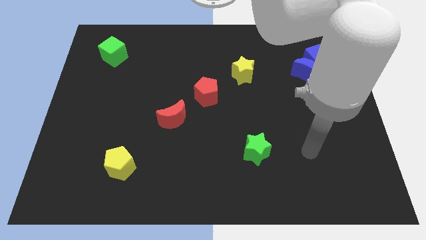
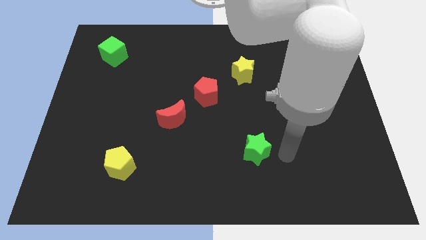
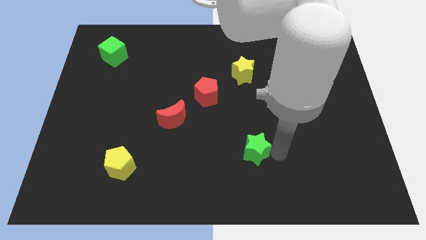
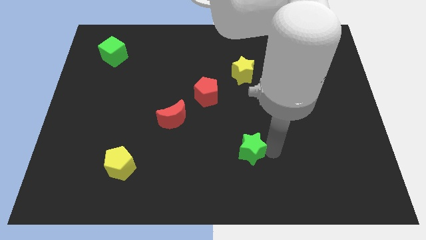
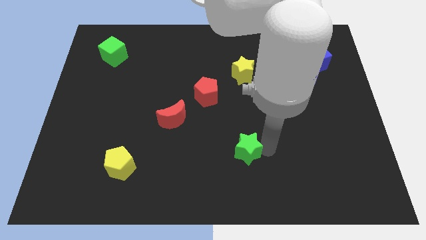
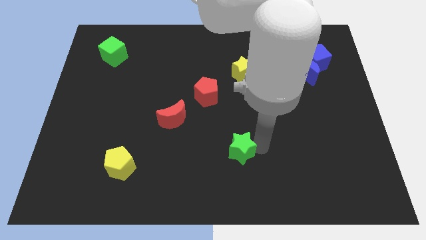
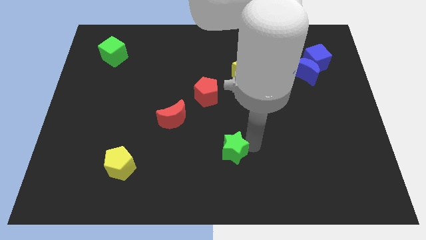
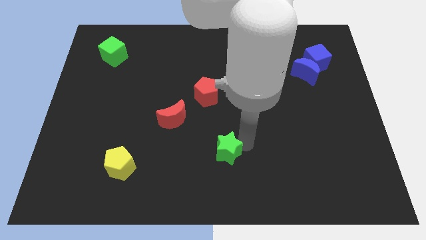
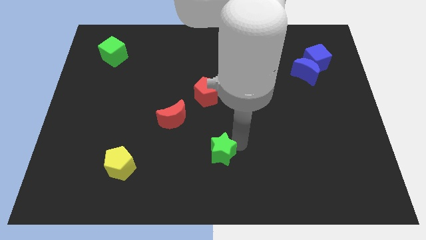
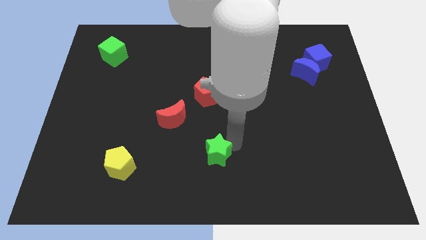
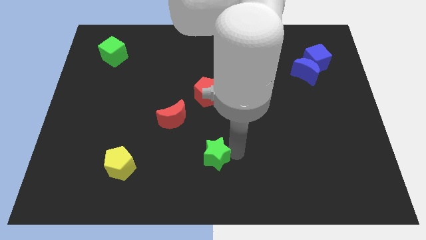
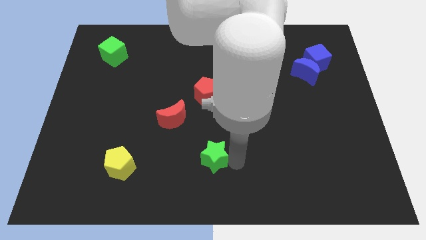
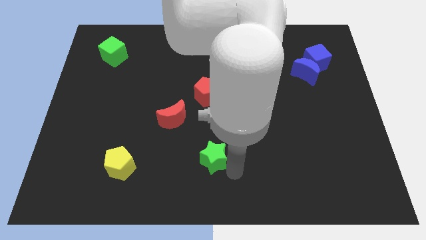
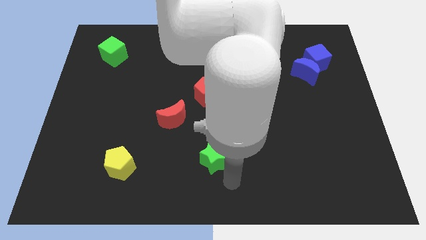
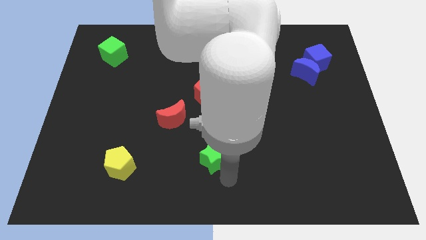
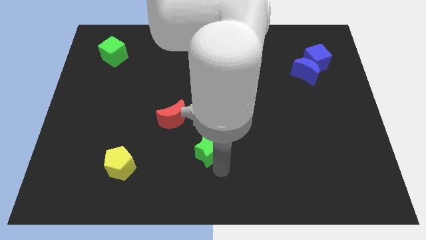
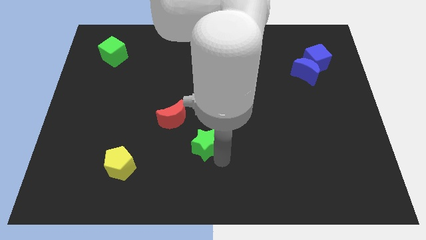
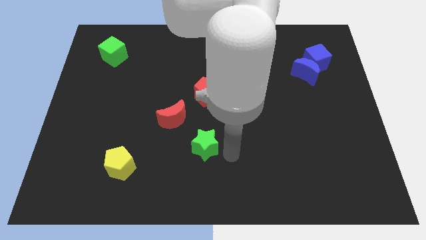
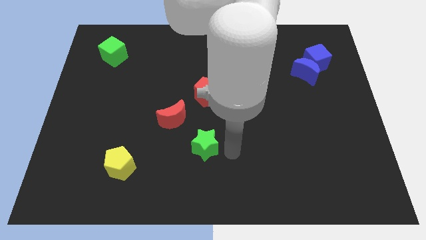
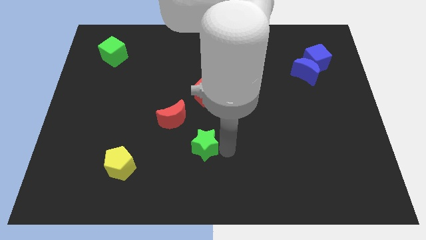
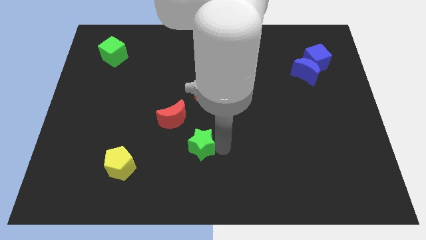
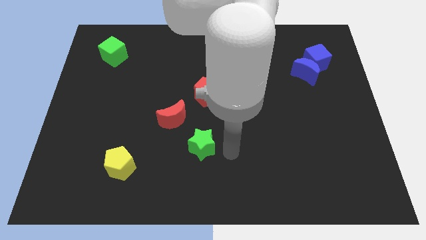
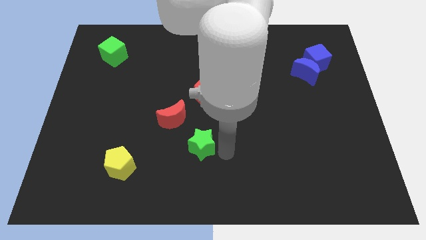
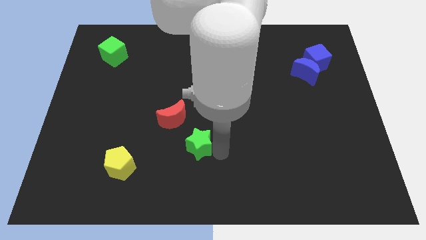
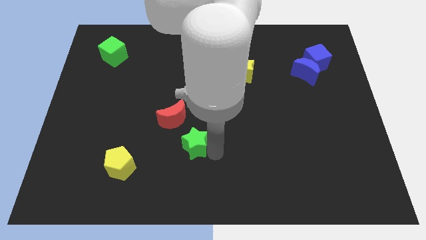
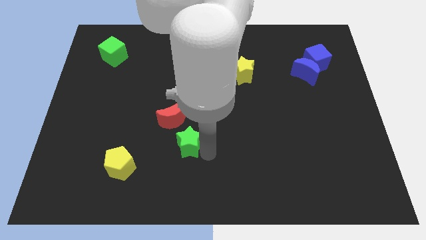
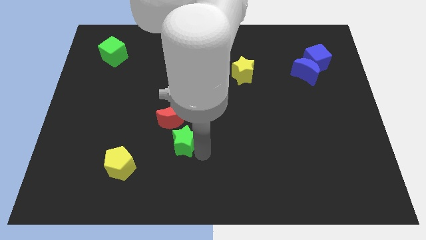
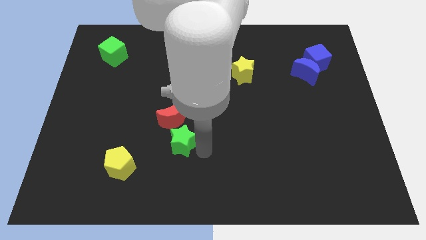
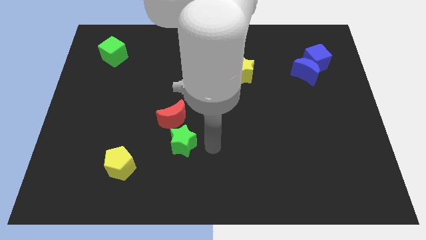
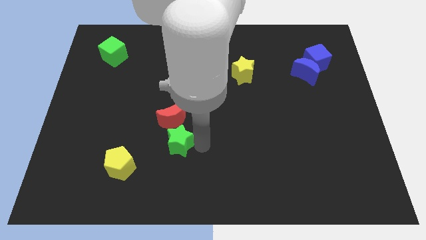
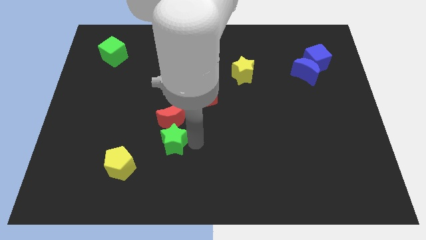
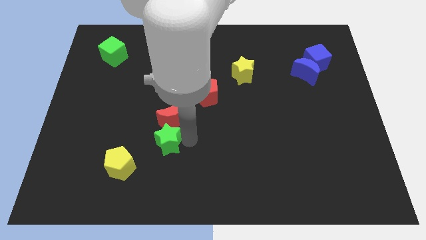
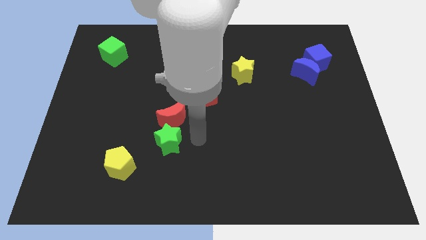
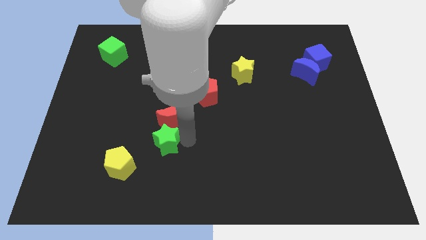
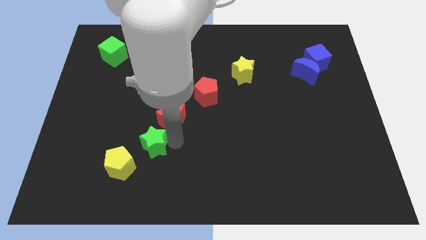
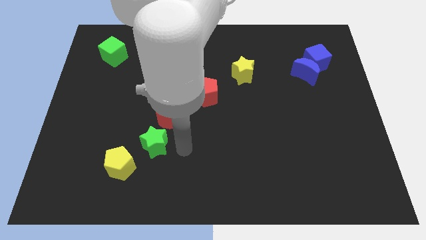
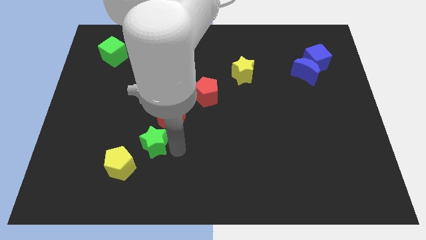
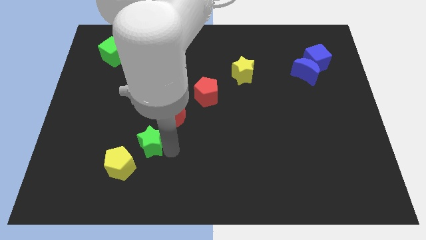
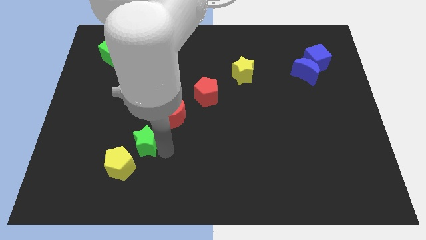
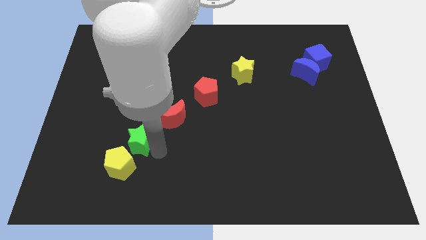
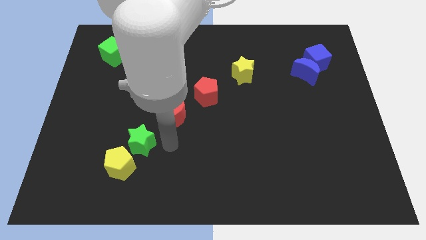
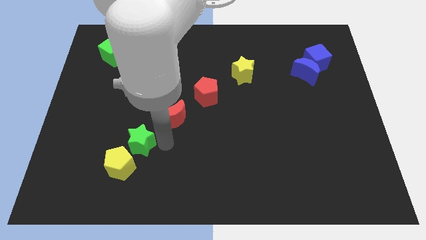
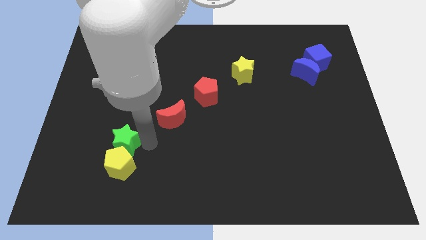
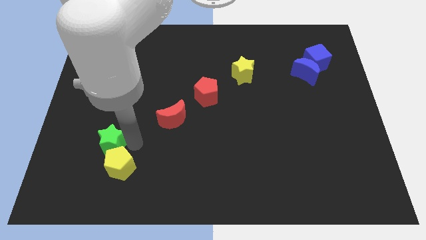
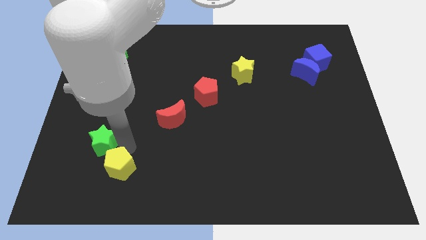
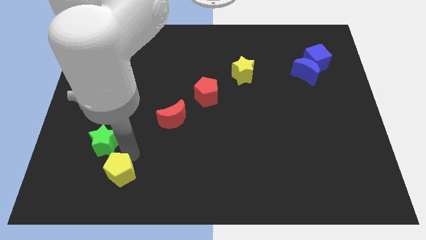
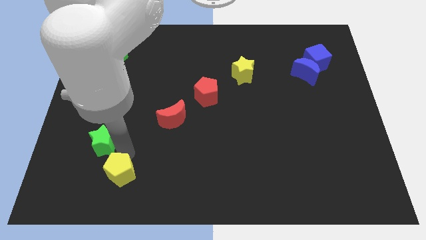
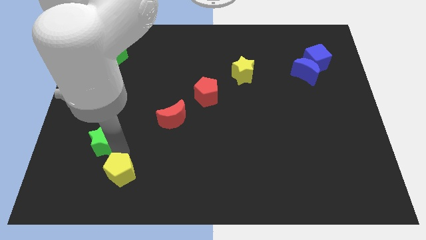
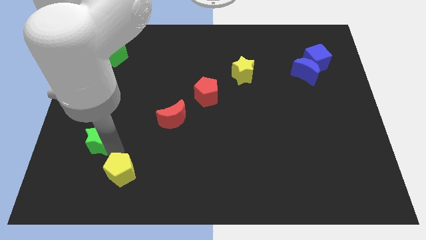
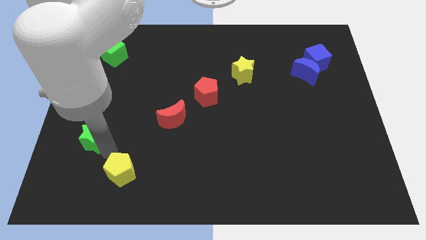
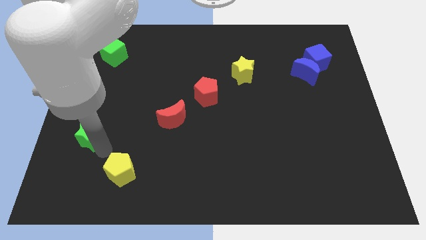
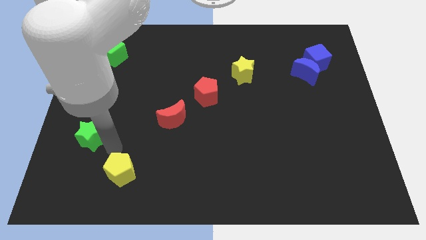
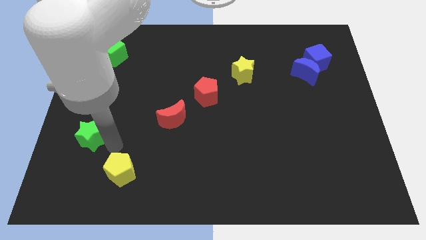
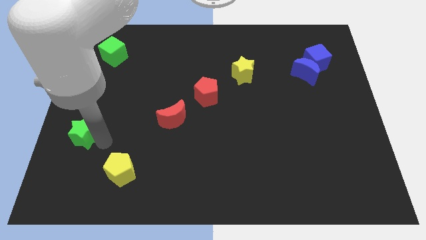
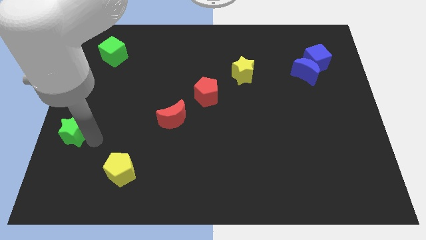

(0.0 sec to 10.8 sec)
move the green star to the center left
